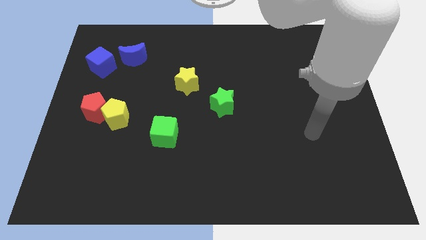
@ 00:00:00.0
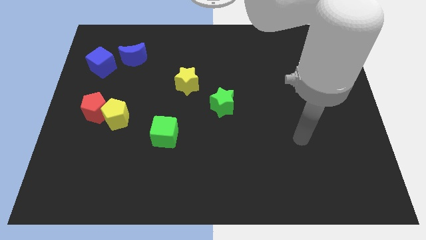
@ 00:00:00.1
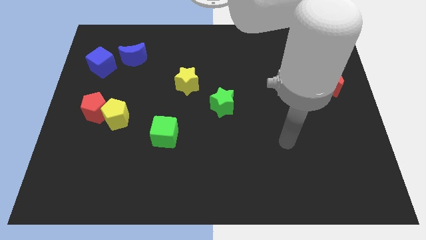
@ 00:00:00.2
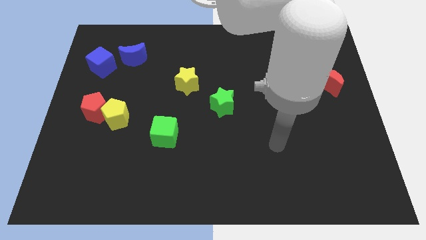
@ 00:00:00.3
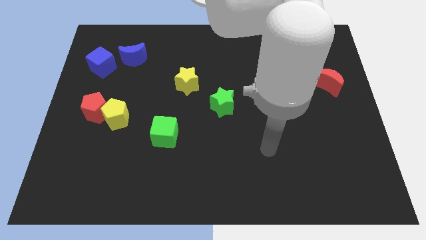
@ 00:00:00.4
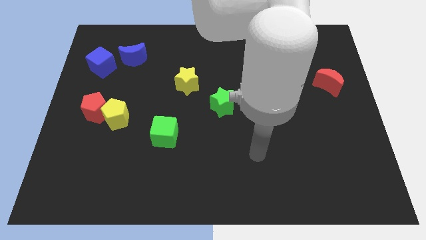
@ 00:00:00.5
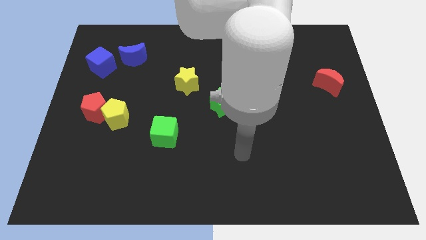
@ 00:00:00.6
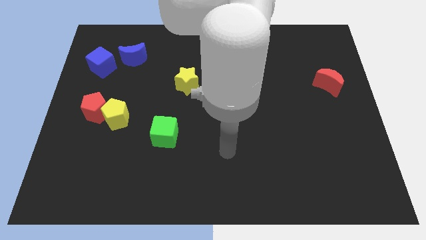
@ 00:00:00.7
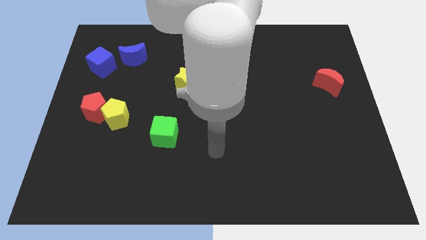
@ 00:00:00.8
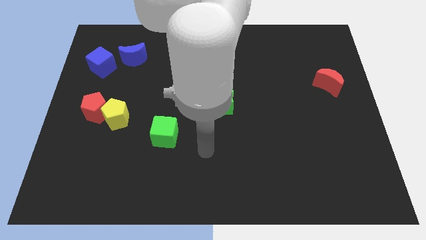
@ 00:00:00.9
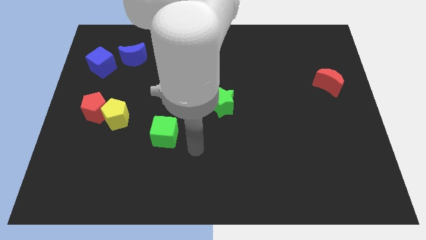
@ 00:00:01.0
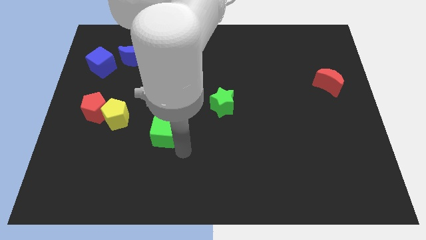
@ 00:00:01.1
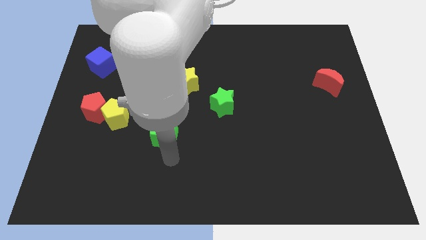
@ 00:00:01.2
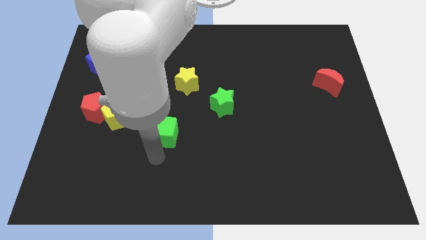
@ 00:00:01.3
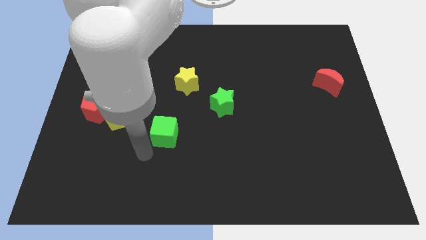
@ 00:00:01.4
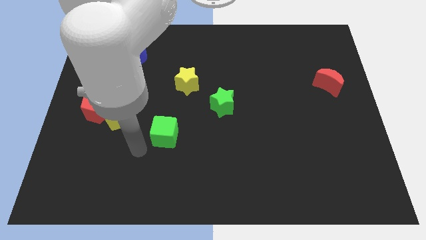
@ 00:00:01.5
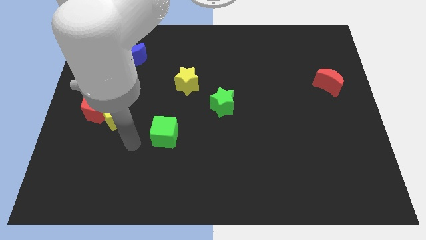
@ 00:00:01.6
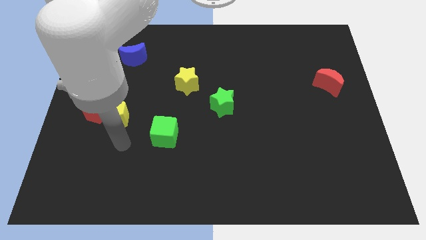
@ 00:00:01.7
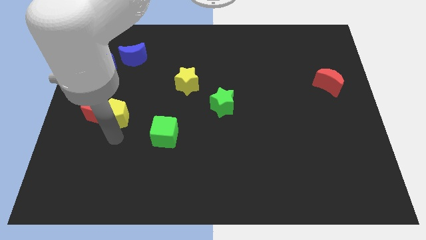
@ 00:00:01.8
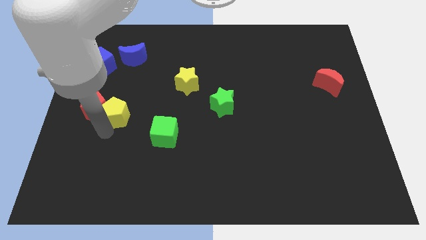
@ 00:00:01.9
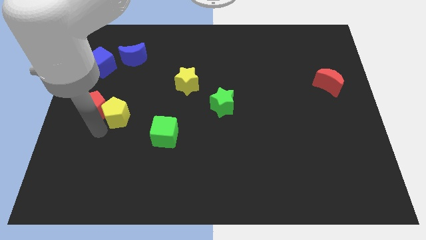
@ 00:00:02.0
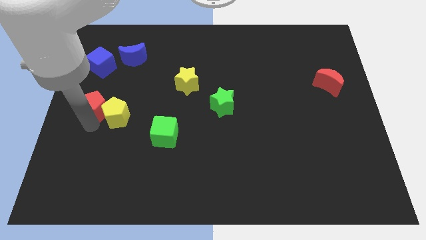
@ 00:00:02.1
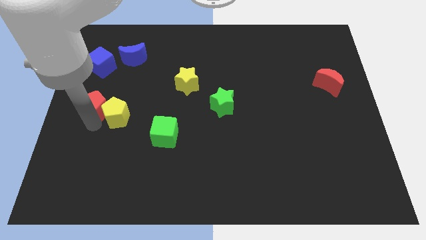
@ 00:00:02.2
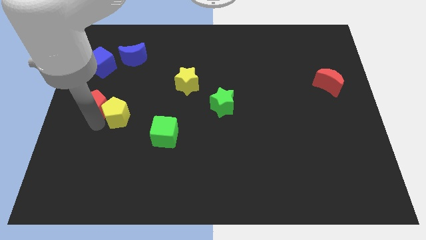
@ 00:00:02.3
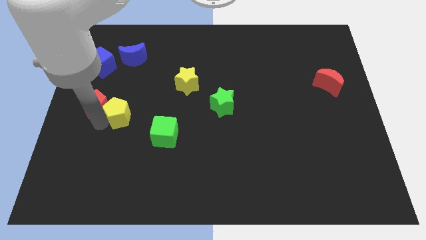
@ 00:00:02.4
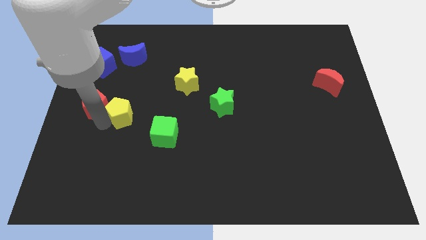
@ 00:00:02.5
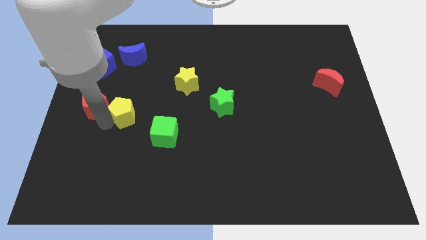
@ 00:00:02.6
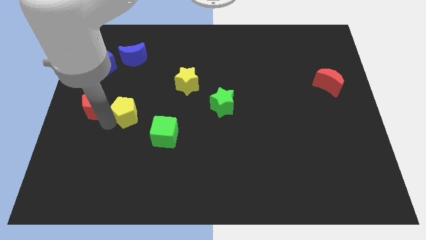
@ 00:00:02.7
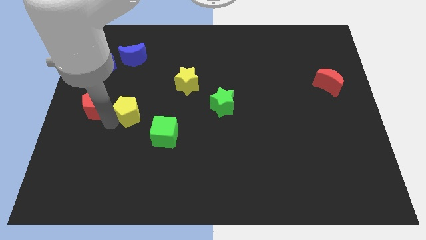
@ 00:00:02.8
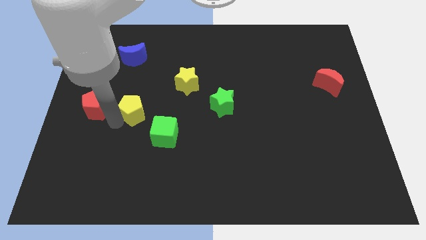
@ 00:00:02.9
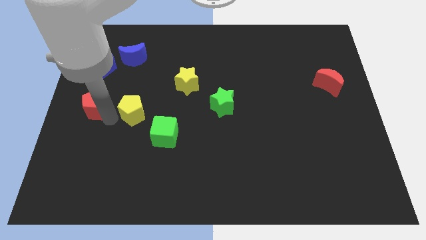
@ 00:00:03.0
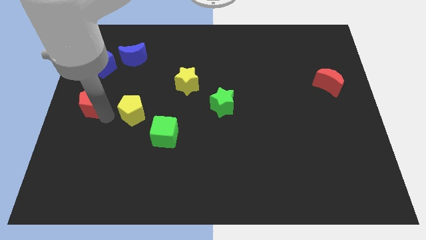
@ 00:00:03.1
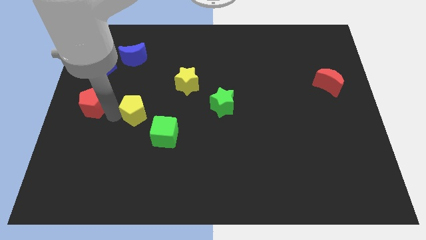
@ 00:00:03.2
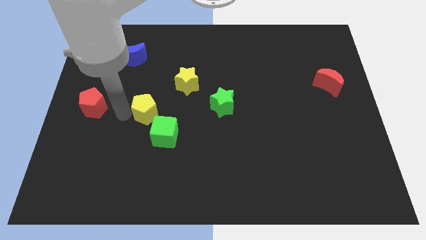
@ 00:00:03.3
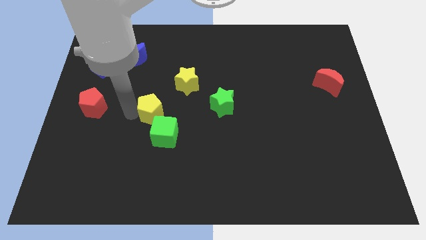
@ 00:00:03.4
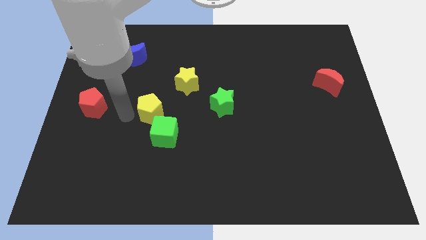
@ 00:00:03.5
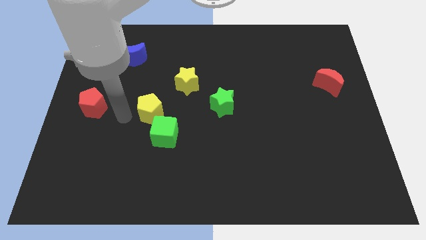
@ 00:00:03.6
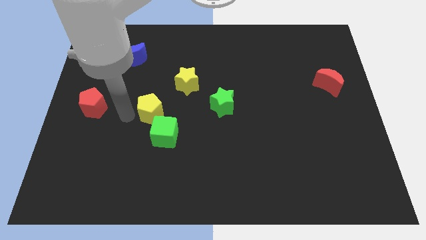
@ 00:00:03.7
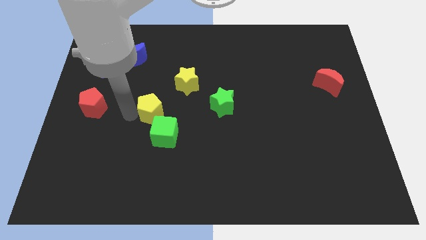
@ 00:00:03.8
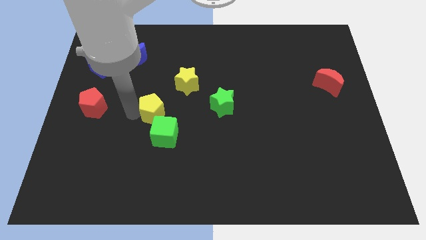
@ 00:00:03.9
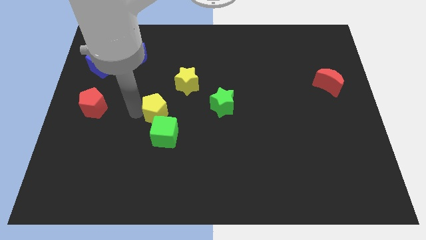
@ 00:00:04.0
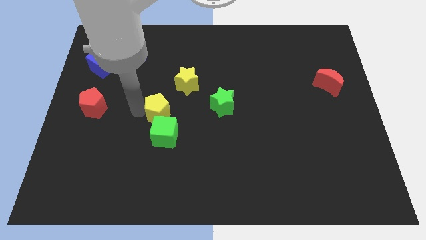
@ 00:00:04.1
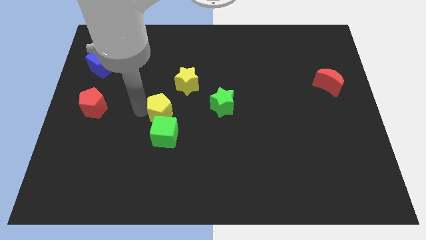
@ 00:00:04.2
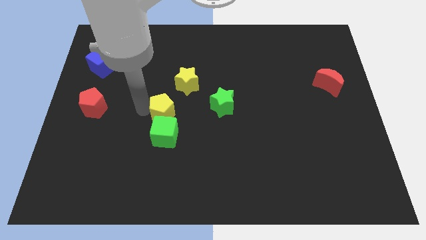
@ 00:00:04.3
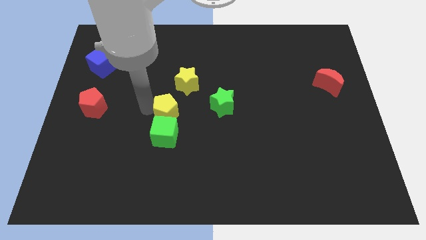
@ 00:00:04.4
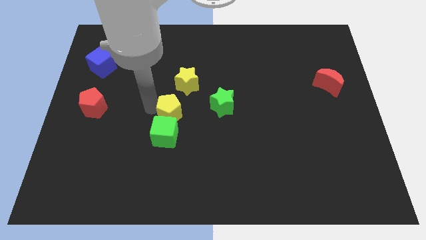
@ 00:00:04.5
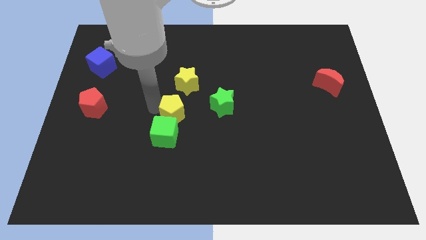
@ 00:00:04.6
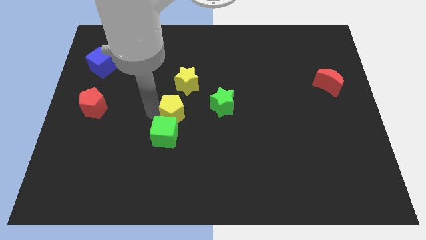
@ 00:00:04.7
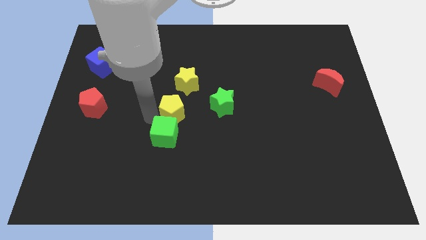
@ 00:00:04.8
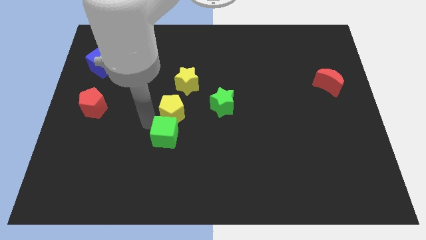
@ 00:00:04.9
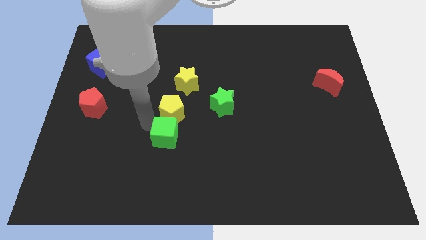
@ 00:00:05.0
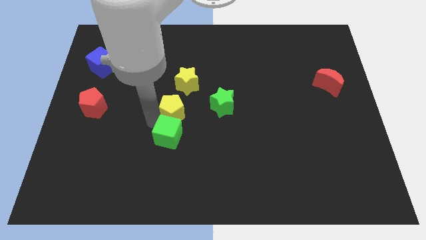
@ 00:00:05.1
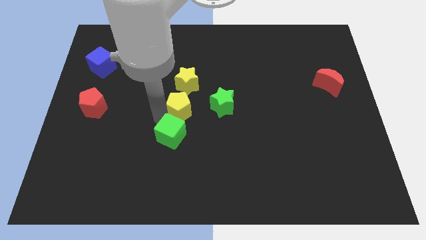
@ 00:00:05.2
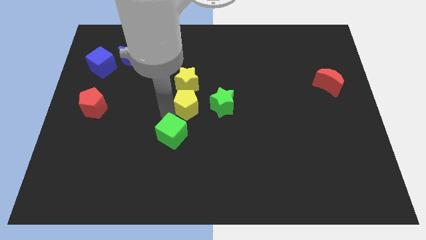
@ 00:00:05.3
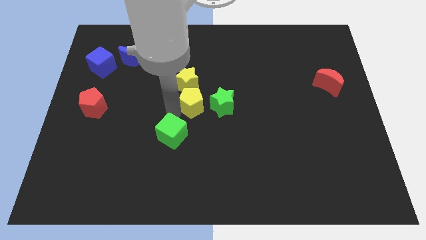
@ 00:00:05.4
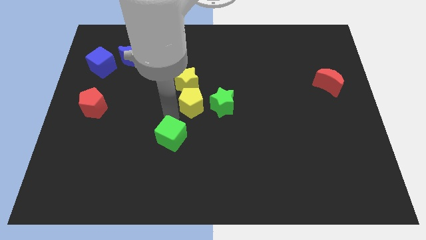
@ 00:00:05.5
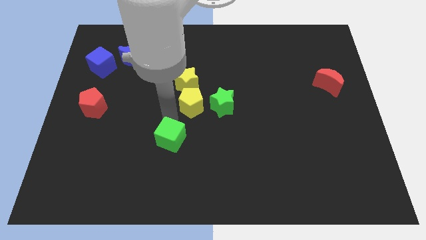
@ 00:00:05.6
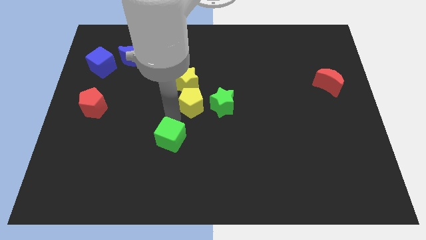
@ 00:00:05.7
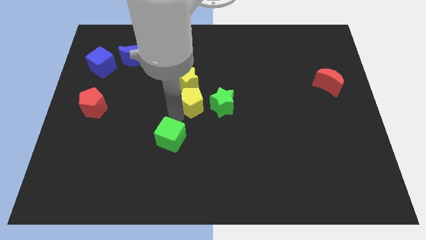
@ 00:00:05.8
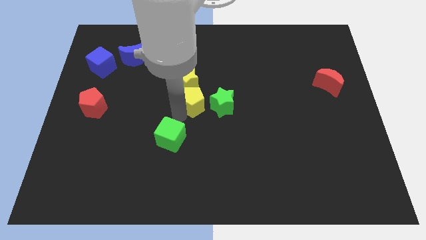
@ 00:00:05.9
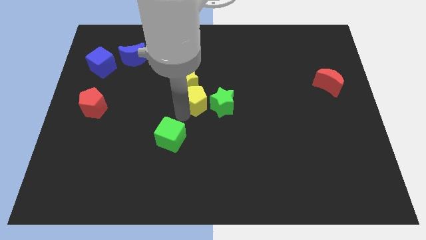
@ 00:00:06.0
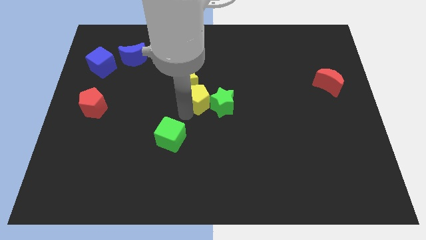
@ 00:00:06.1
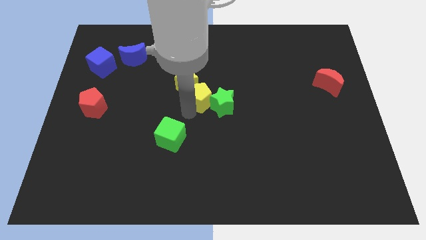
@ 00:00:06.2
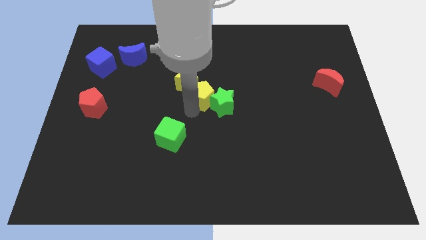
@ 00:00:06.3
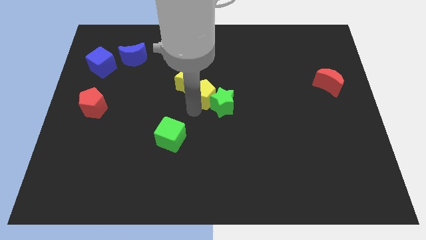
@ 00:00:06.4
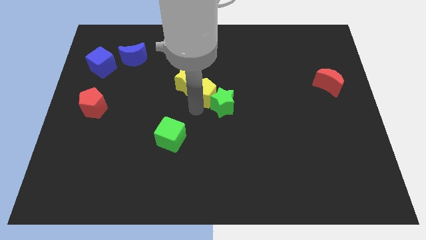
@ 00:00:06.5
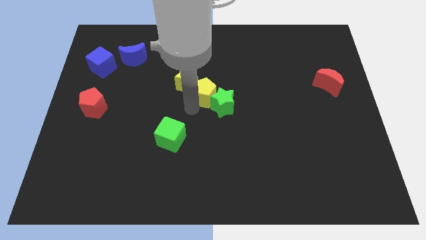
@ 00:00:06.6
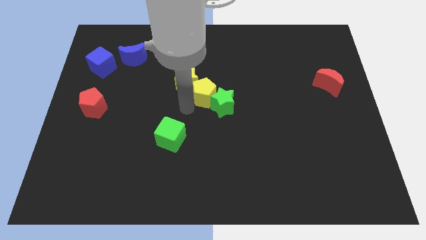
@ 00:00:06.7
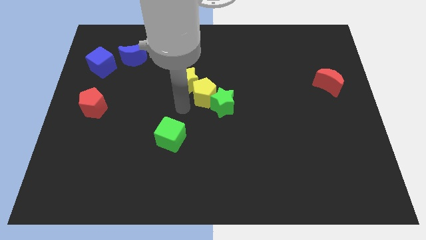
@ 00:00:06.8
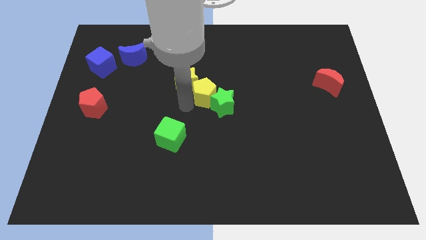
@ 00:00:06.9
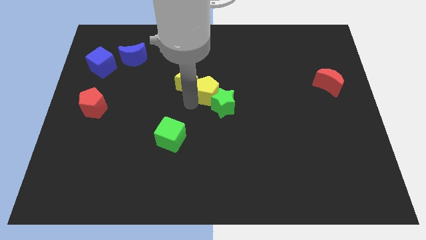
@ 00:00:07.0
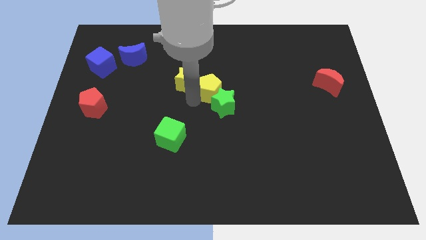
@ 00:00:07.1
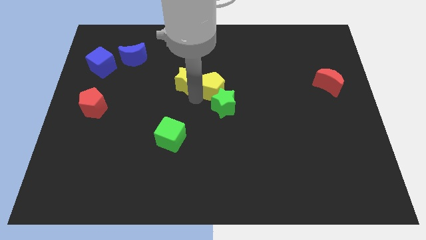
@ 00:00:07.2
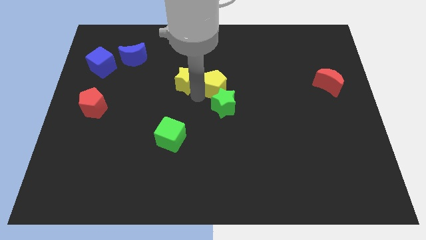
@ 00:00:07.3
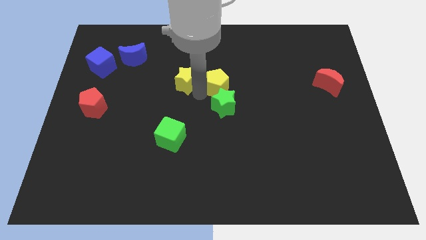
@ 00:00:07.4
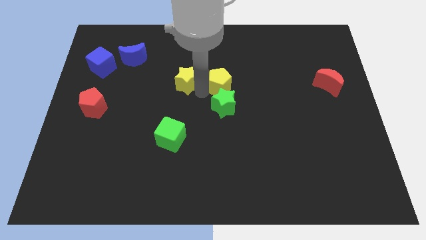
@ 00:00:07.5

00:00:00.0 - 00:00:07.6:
move the yellow pentagon to the top right of the green star
